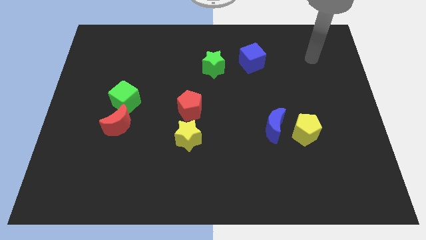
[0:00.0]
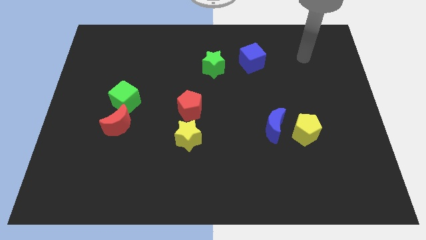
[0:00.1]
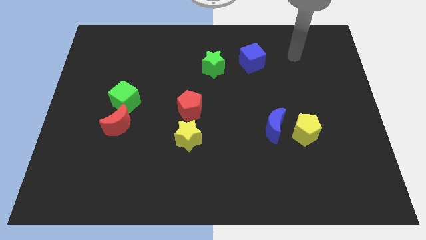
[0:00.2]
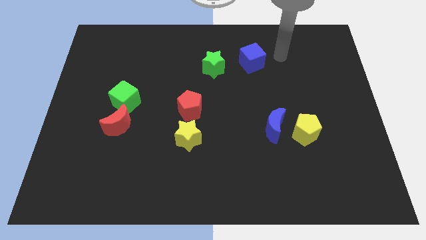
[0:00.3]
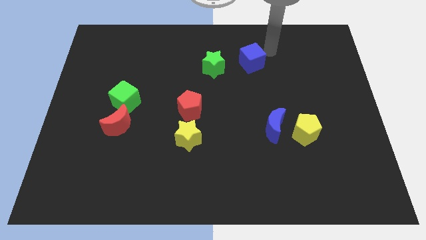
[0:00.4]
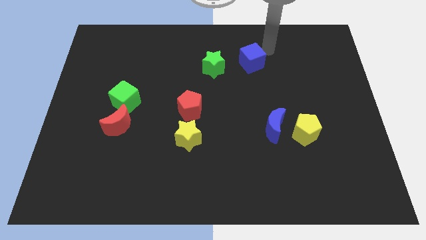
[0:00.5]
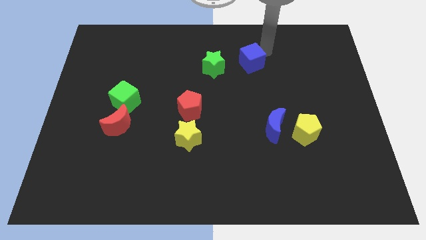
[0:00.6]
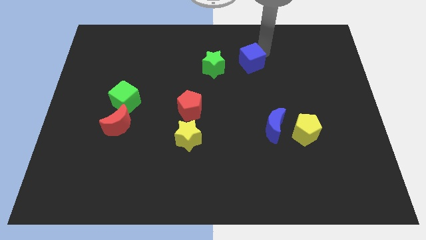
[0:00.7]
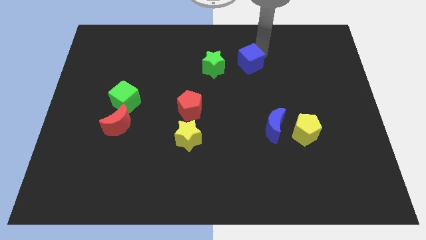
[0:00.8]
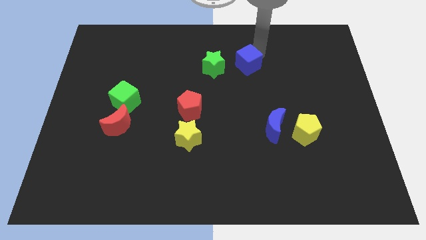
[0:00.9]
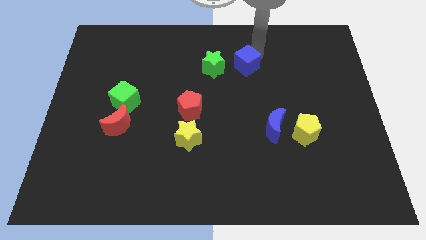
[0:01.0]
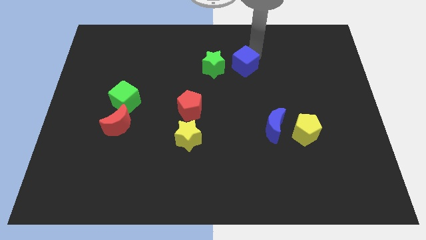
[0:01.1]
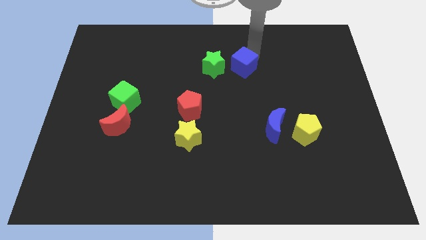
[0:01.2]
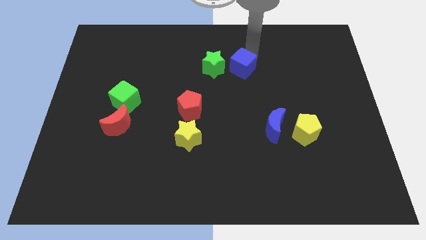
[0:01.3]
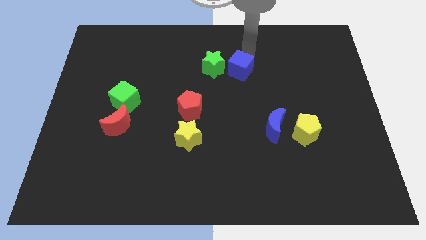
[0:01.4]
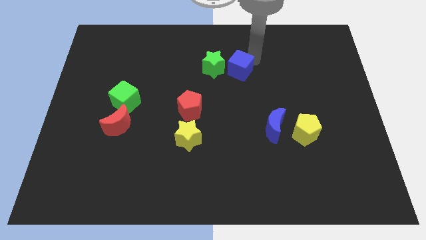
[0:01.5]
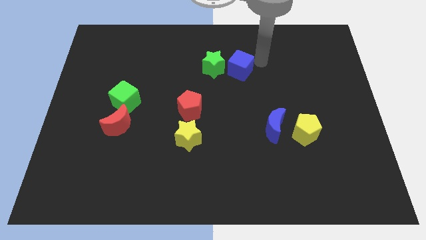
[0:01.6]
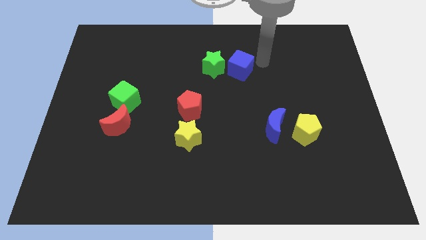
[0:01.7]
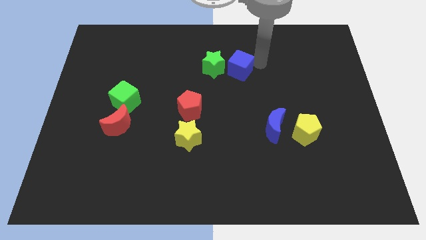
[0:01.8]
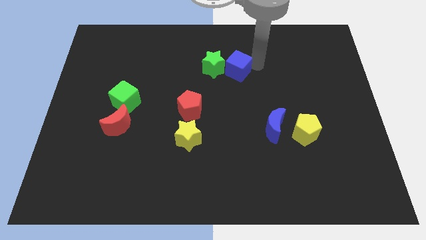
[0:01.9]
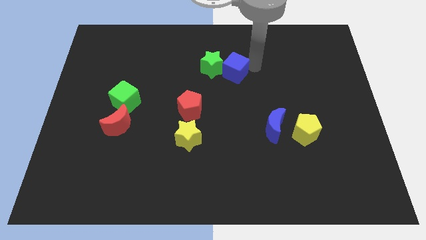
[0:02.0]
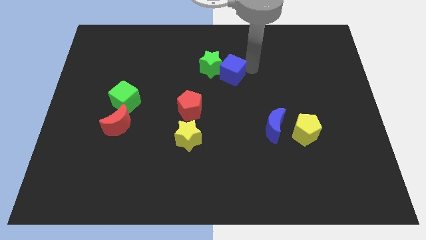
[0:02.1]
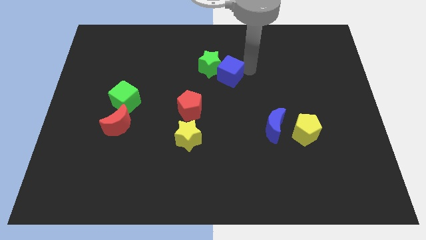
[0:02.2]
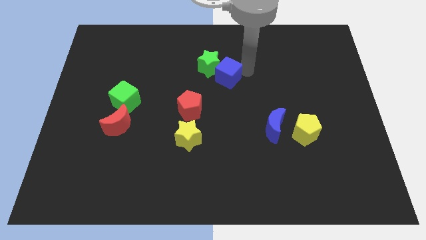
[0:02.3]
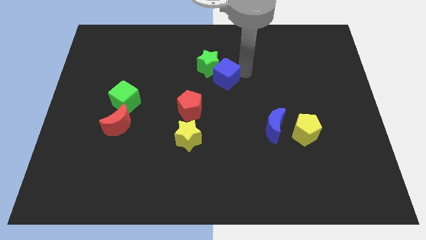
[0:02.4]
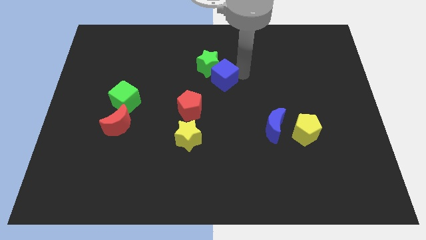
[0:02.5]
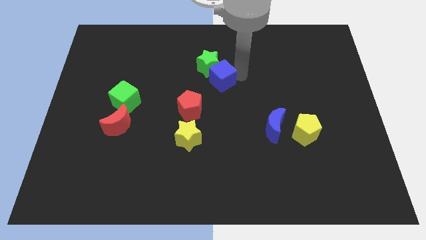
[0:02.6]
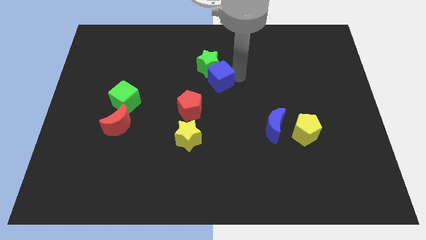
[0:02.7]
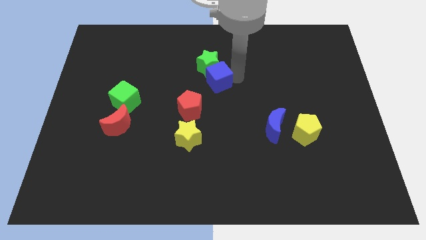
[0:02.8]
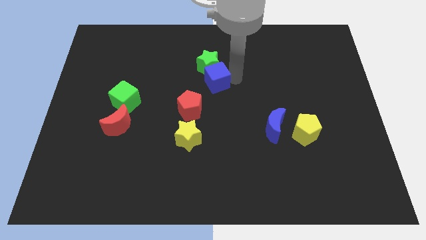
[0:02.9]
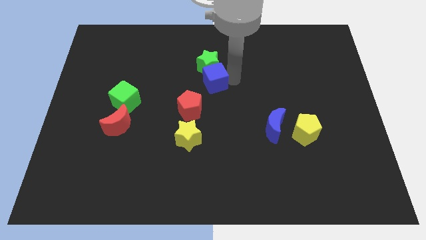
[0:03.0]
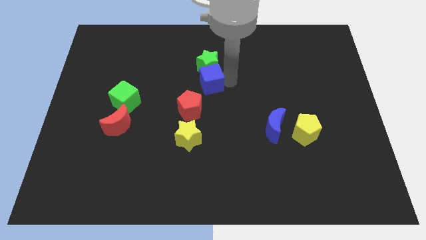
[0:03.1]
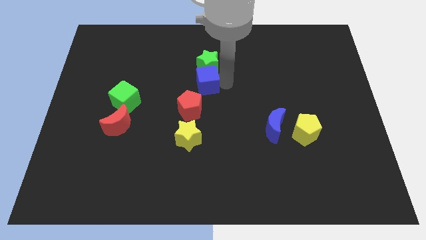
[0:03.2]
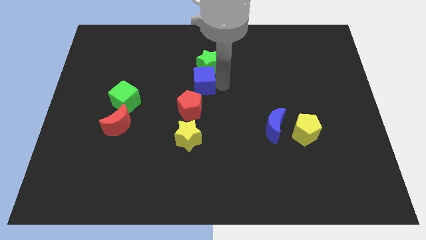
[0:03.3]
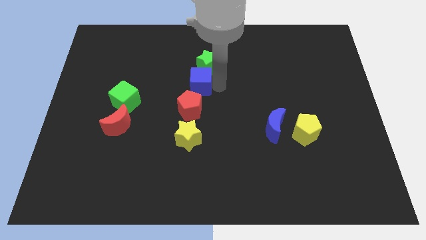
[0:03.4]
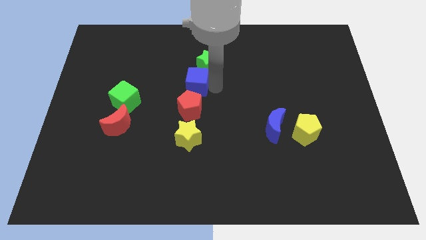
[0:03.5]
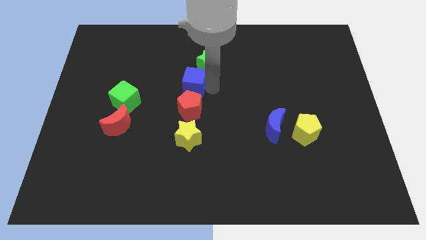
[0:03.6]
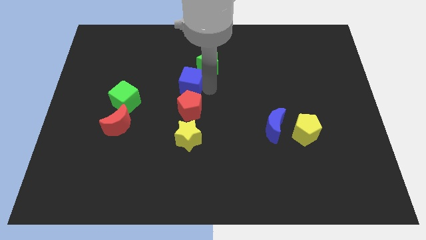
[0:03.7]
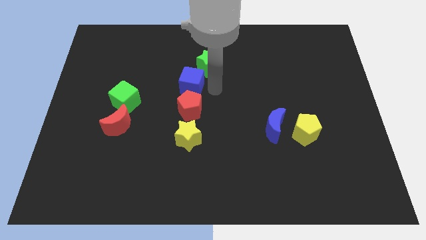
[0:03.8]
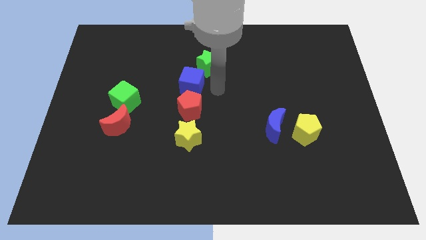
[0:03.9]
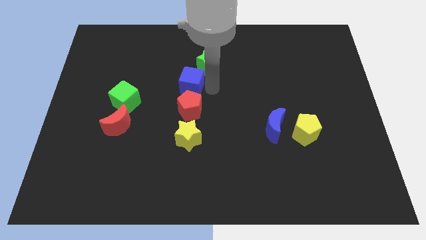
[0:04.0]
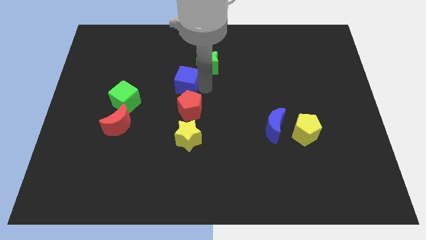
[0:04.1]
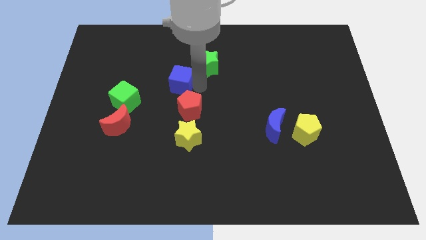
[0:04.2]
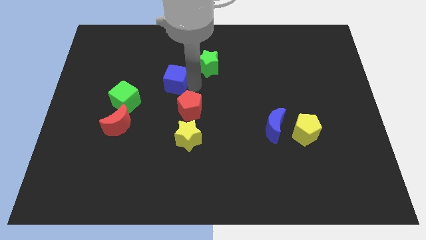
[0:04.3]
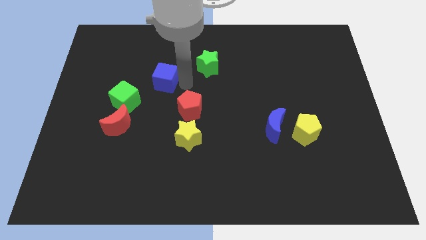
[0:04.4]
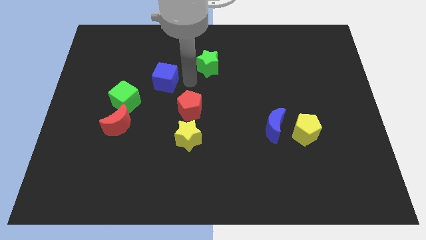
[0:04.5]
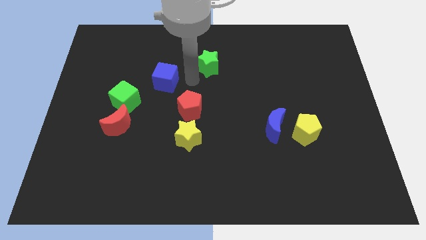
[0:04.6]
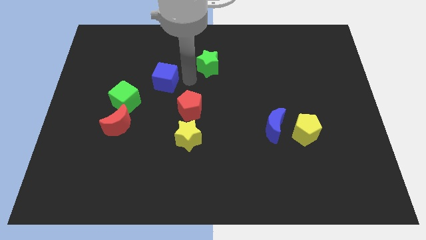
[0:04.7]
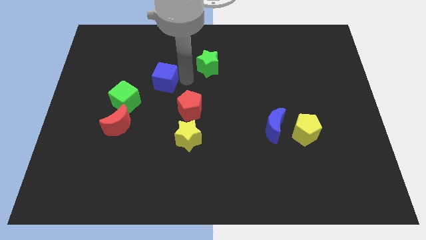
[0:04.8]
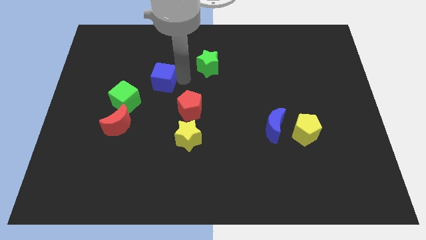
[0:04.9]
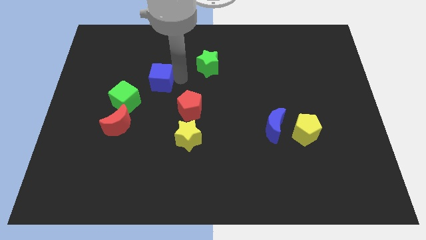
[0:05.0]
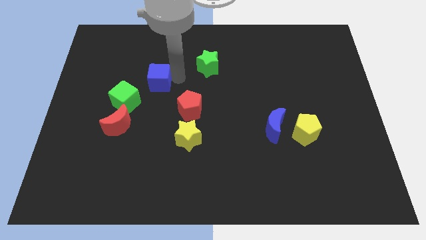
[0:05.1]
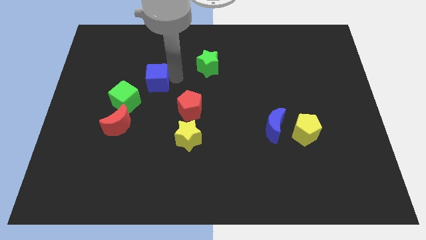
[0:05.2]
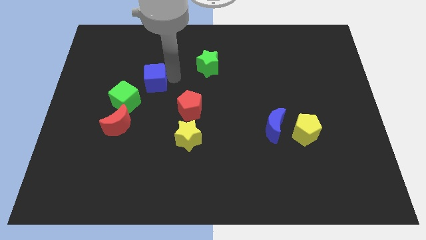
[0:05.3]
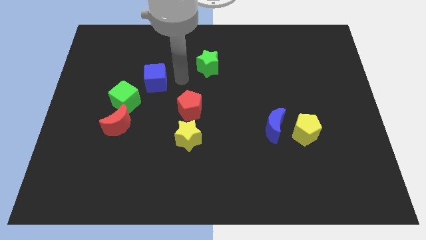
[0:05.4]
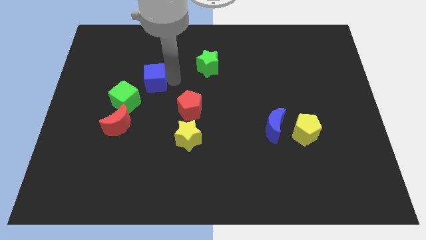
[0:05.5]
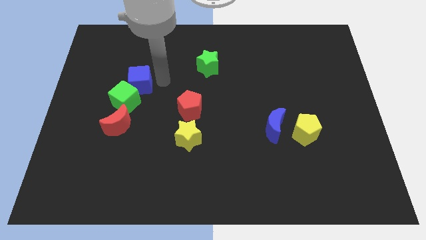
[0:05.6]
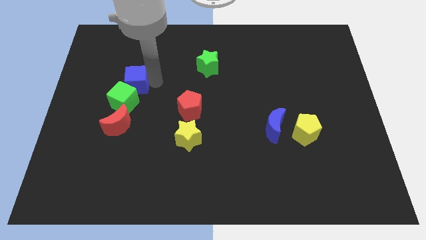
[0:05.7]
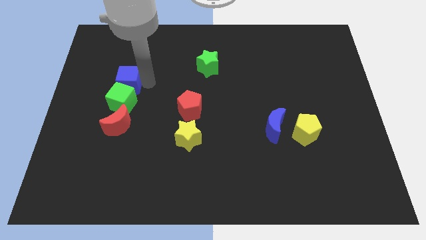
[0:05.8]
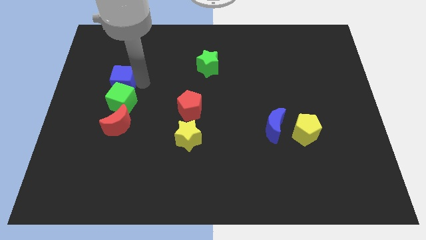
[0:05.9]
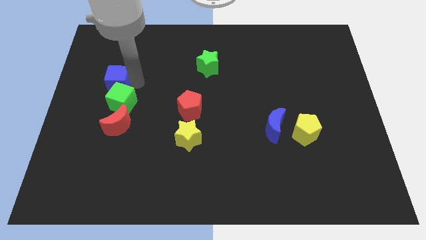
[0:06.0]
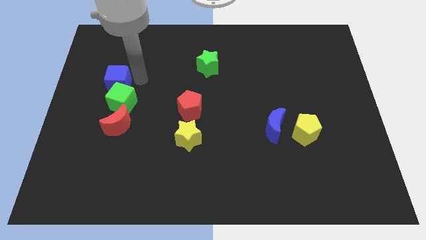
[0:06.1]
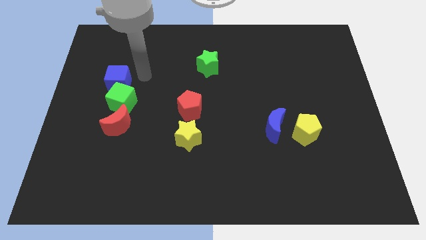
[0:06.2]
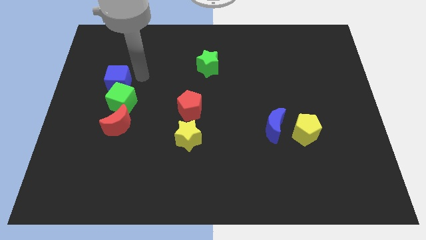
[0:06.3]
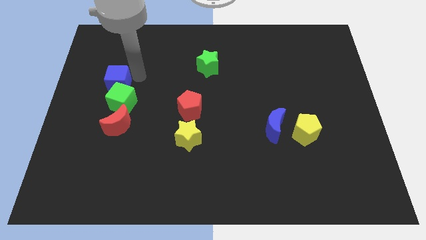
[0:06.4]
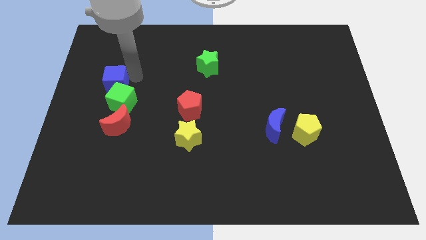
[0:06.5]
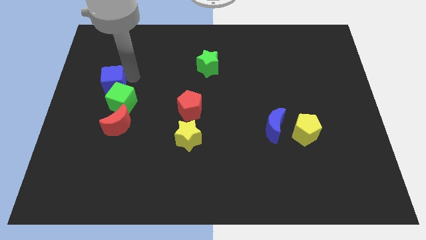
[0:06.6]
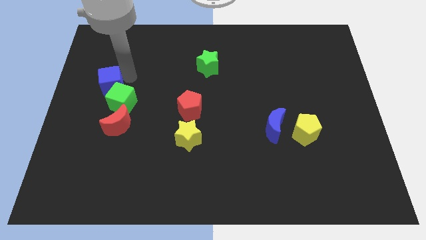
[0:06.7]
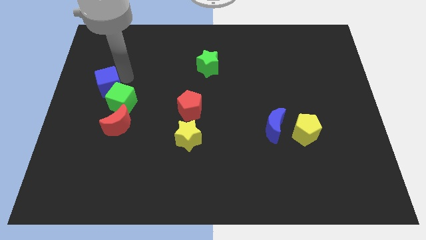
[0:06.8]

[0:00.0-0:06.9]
push the blue cube to the center left
